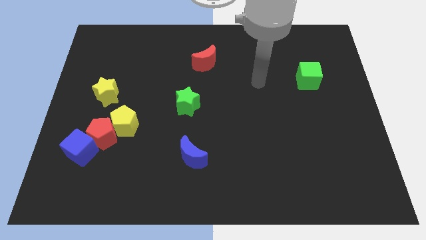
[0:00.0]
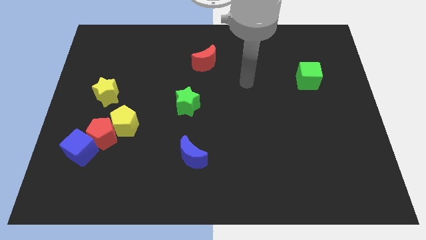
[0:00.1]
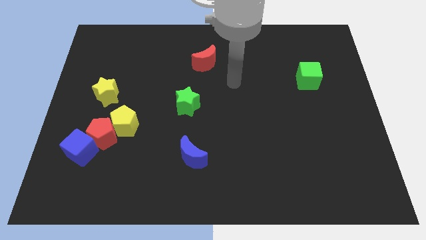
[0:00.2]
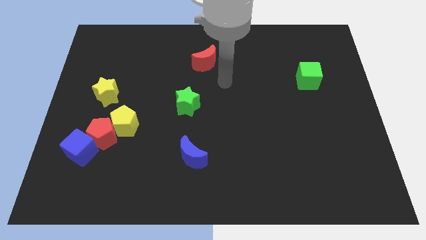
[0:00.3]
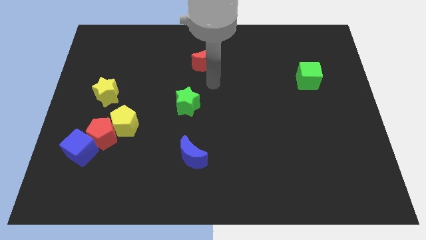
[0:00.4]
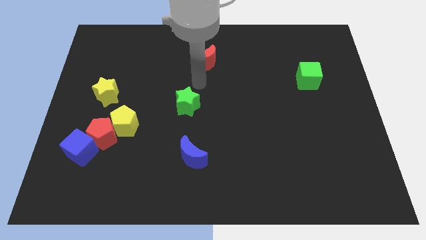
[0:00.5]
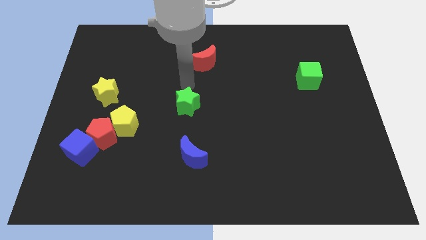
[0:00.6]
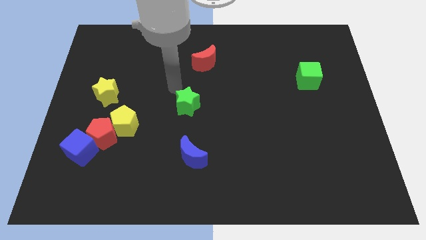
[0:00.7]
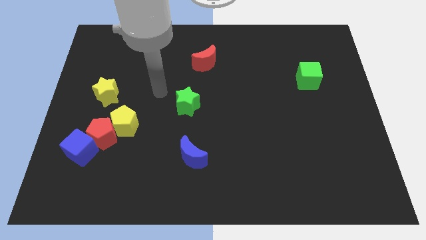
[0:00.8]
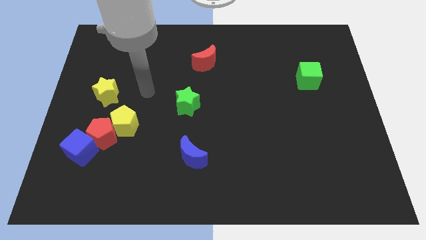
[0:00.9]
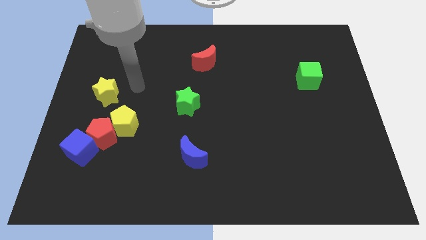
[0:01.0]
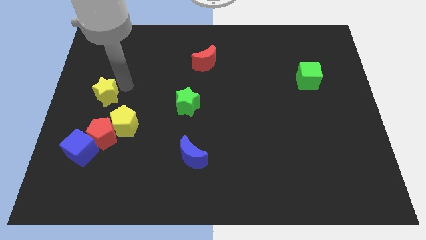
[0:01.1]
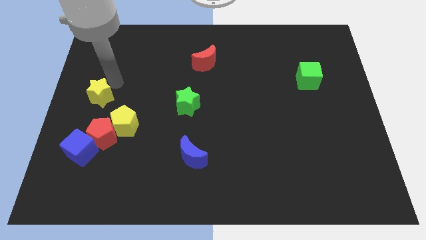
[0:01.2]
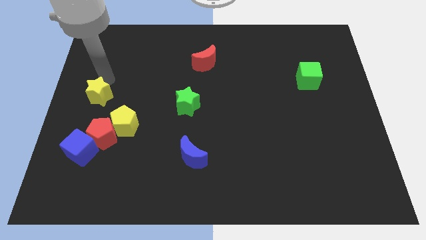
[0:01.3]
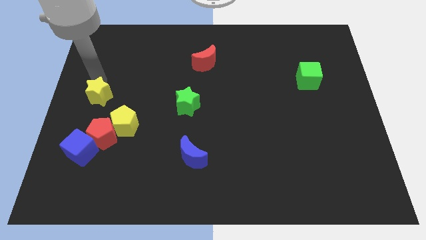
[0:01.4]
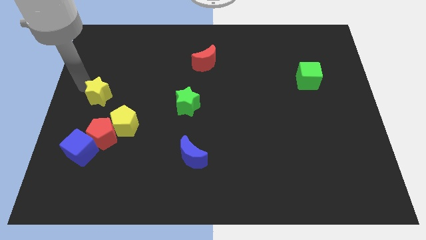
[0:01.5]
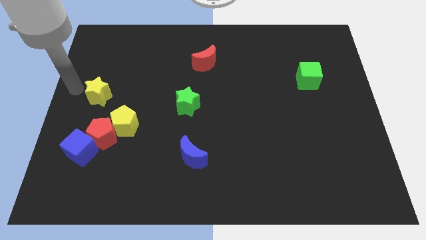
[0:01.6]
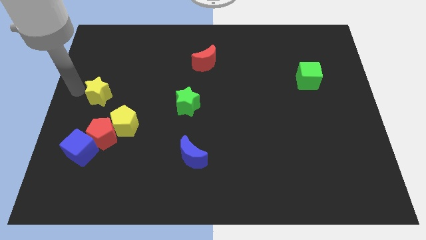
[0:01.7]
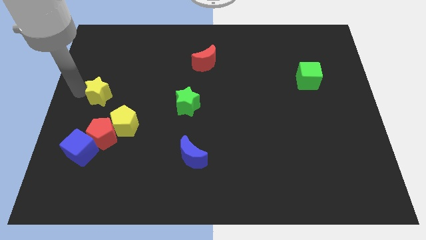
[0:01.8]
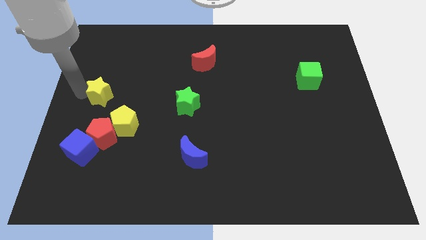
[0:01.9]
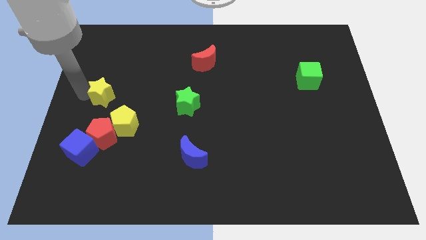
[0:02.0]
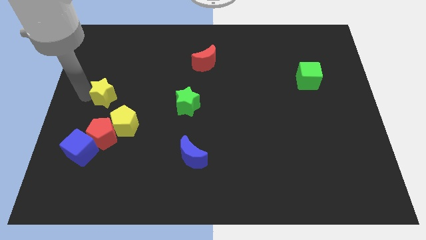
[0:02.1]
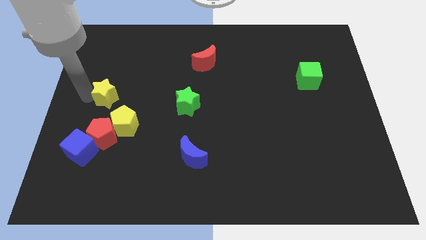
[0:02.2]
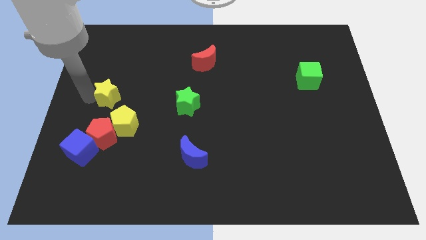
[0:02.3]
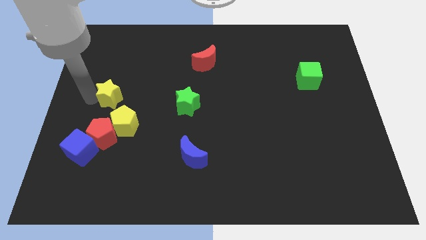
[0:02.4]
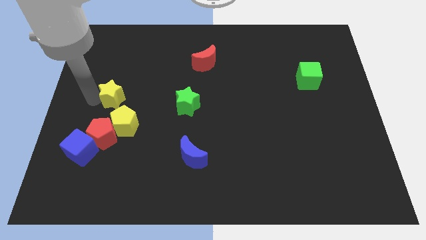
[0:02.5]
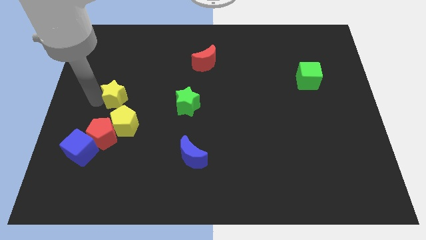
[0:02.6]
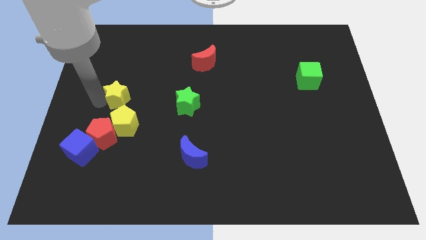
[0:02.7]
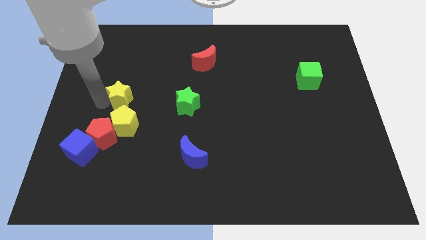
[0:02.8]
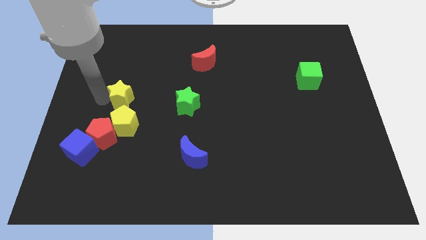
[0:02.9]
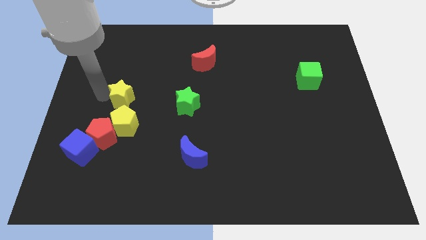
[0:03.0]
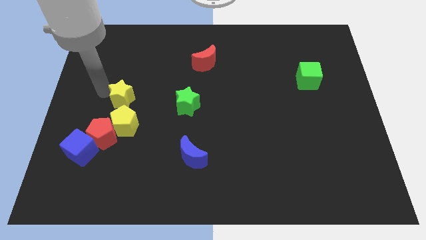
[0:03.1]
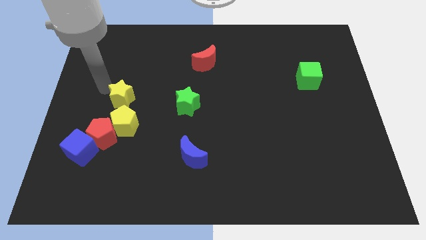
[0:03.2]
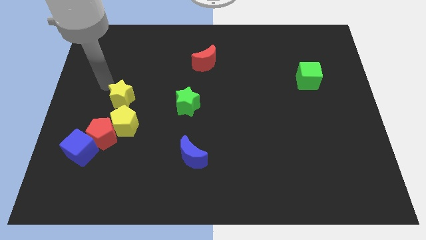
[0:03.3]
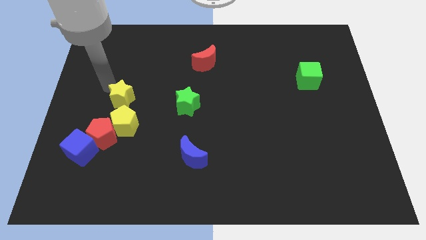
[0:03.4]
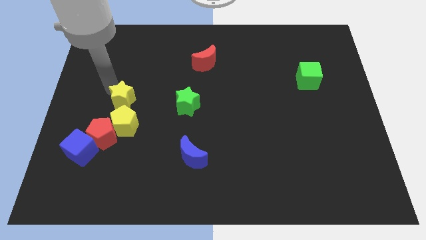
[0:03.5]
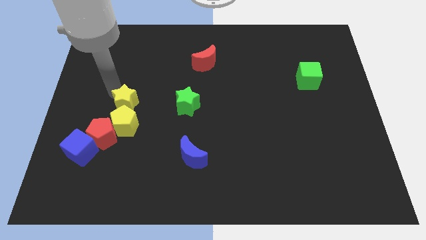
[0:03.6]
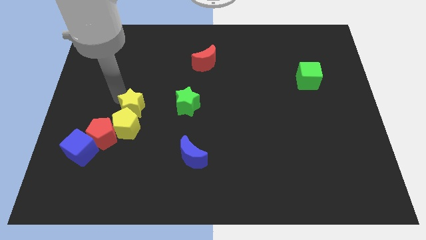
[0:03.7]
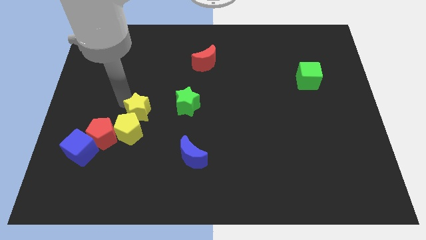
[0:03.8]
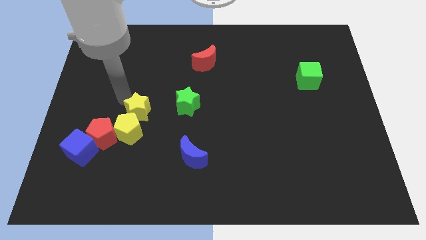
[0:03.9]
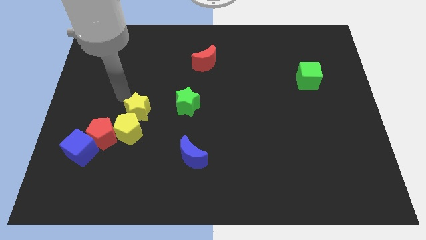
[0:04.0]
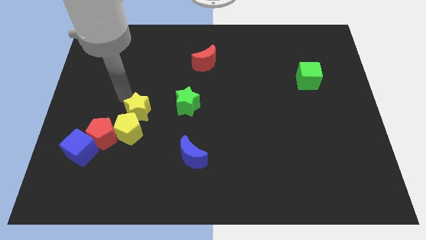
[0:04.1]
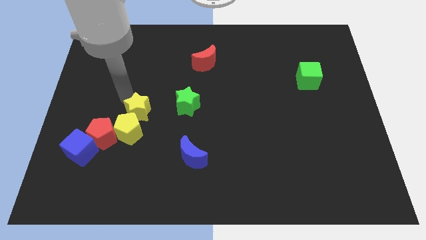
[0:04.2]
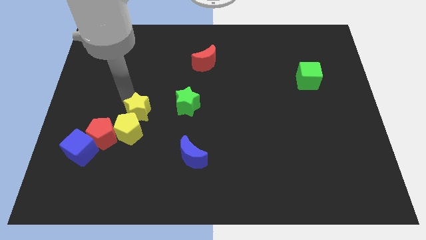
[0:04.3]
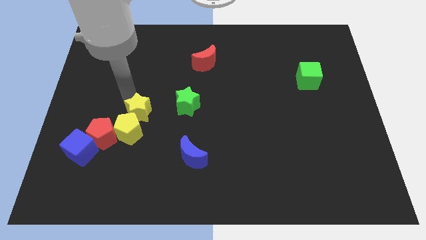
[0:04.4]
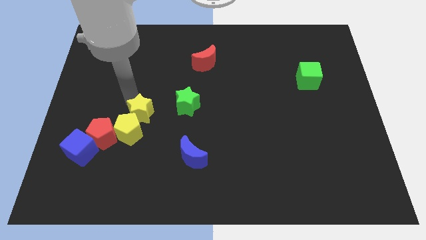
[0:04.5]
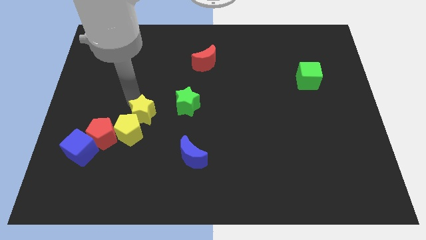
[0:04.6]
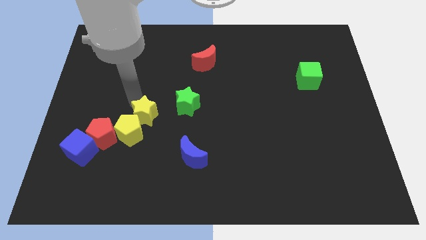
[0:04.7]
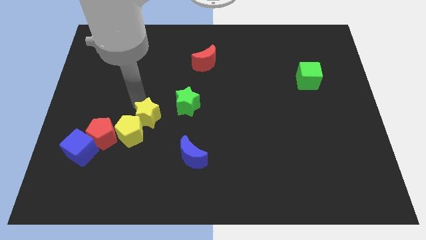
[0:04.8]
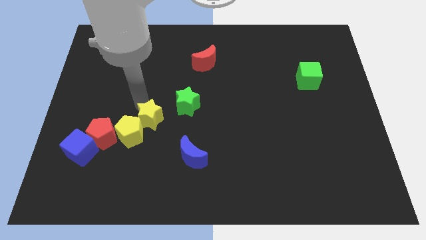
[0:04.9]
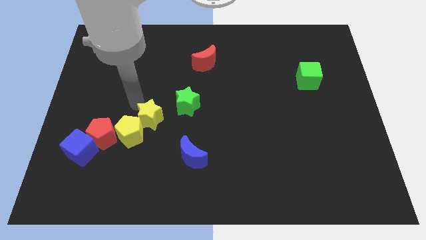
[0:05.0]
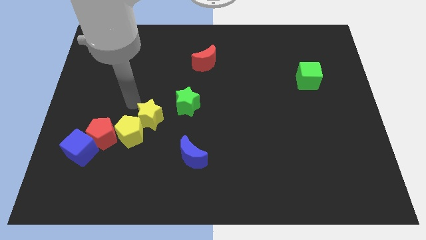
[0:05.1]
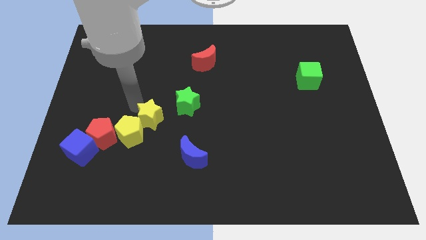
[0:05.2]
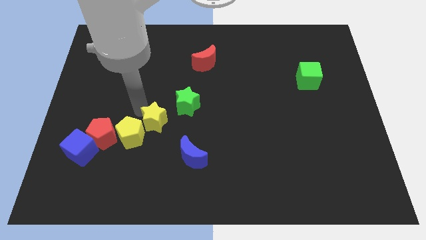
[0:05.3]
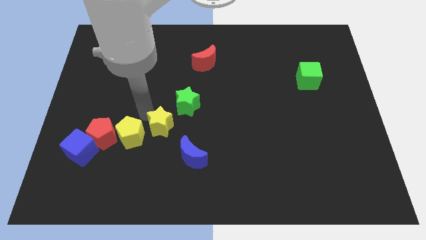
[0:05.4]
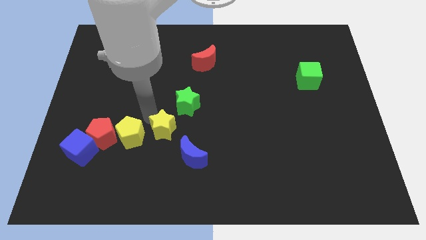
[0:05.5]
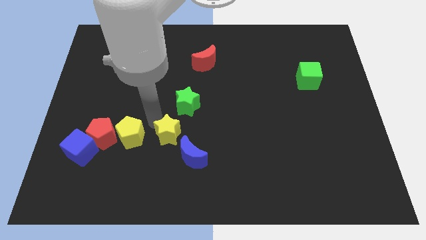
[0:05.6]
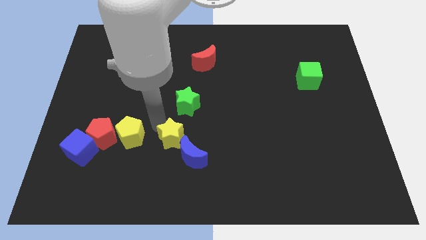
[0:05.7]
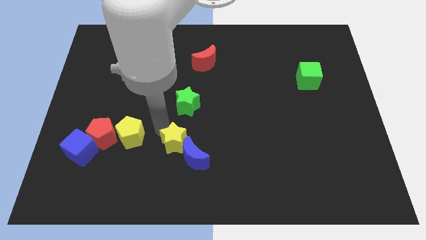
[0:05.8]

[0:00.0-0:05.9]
slide the yellow star next to the blue moon

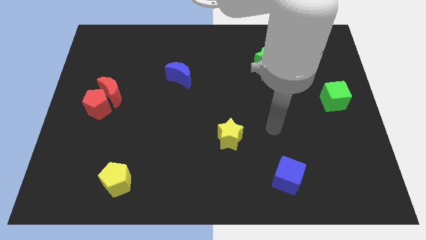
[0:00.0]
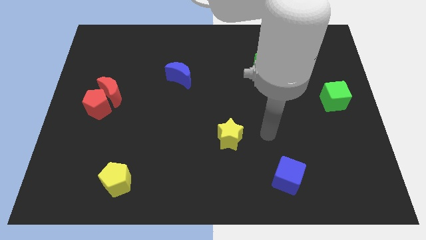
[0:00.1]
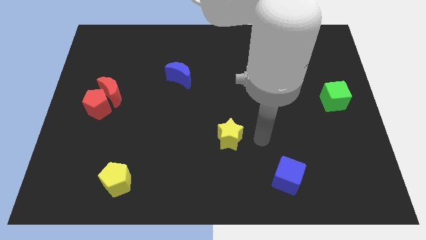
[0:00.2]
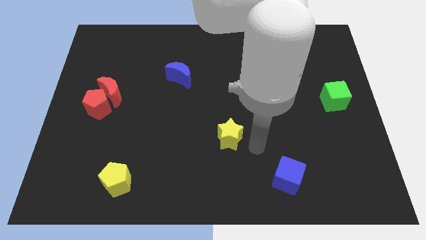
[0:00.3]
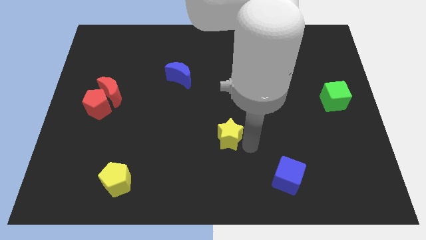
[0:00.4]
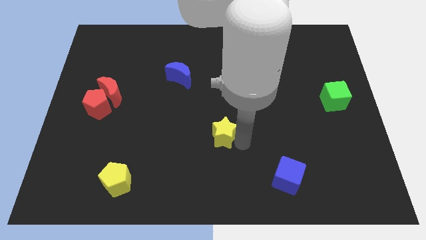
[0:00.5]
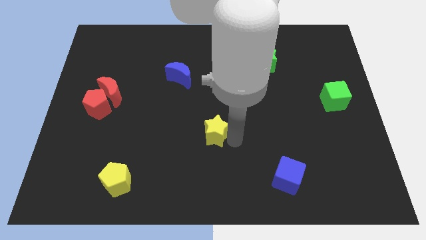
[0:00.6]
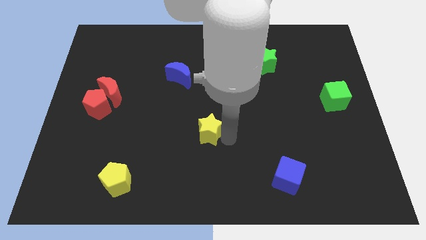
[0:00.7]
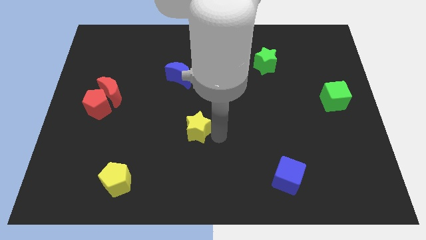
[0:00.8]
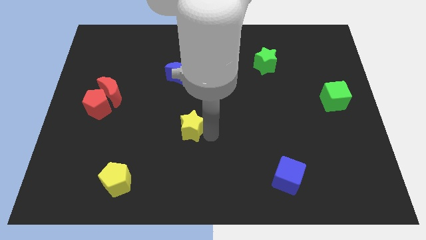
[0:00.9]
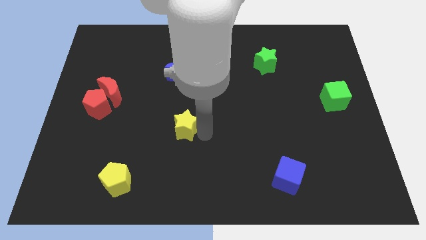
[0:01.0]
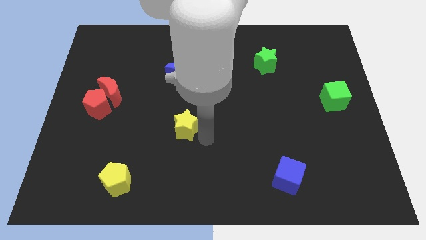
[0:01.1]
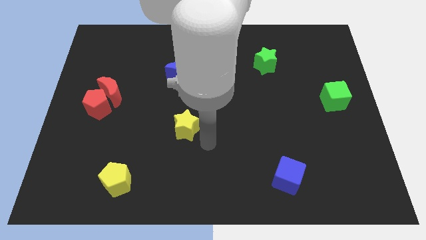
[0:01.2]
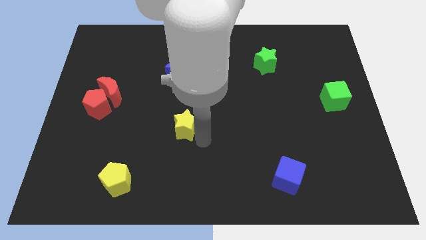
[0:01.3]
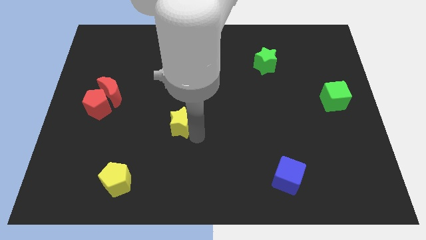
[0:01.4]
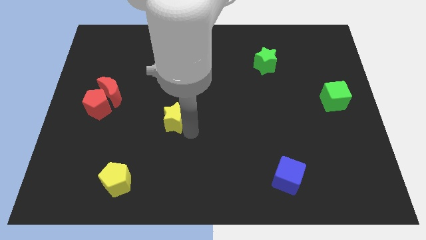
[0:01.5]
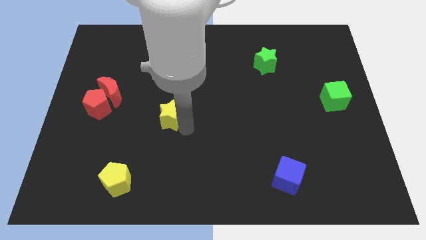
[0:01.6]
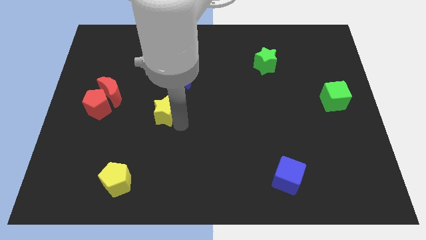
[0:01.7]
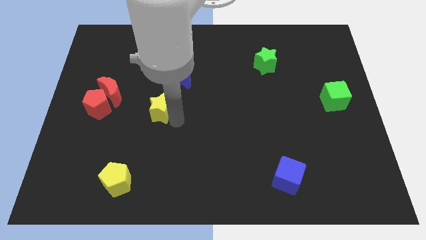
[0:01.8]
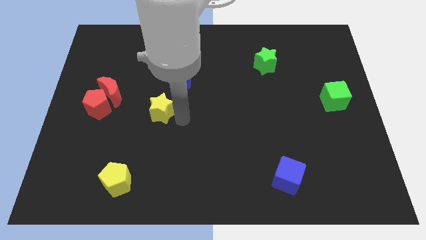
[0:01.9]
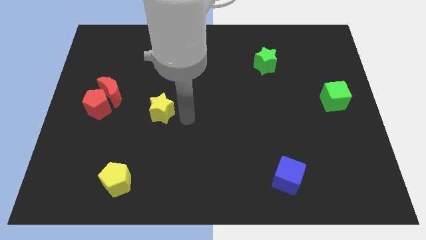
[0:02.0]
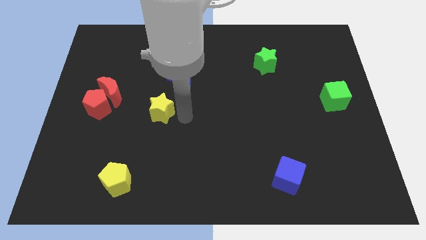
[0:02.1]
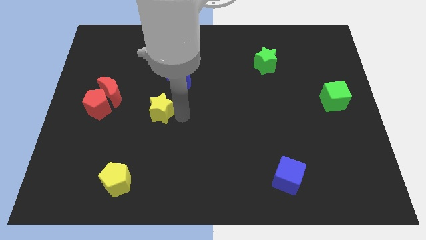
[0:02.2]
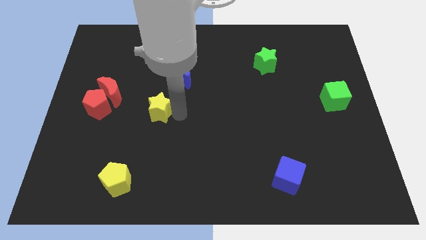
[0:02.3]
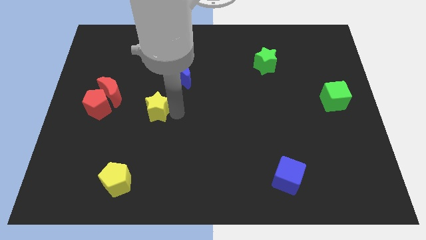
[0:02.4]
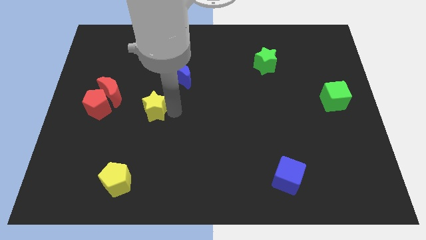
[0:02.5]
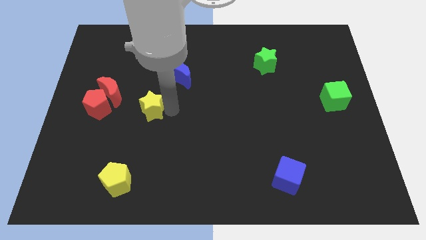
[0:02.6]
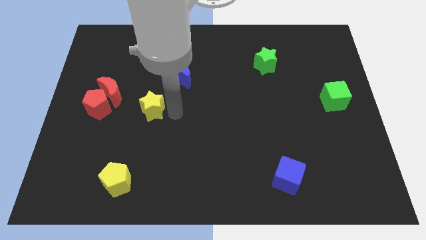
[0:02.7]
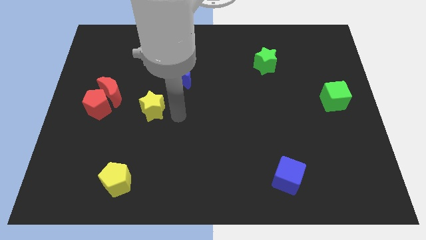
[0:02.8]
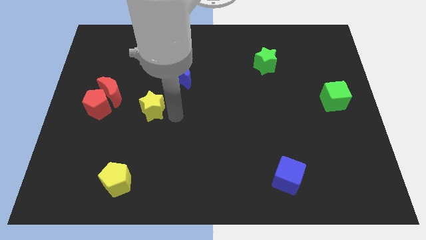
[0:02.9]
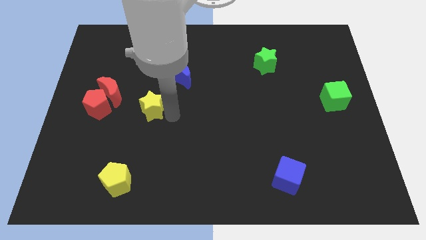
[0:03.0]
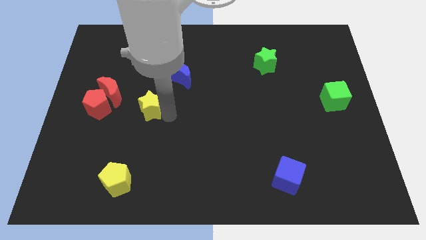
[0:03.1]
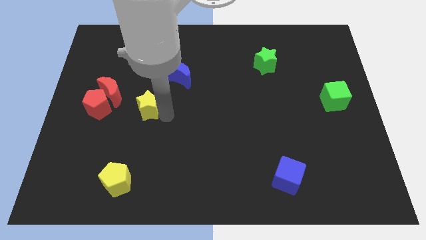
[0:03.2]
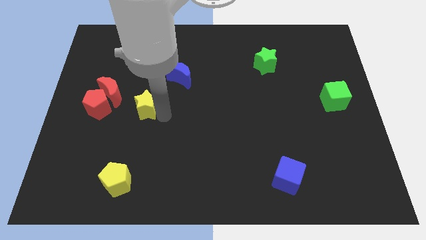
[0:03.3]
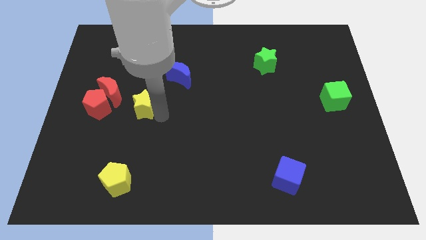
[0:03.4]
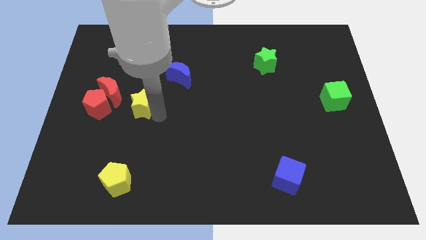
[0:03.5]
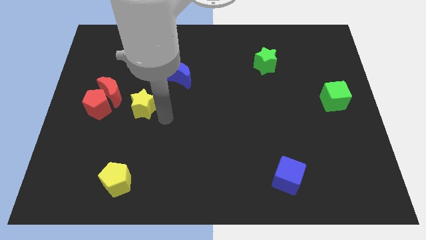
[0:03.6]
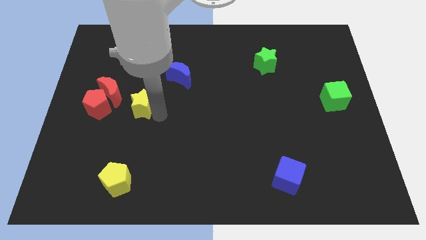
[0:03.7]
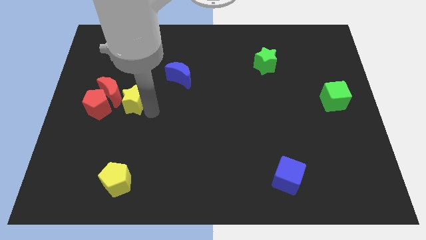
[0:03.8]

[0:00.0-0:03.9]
slide the yellow star to the red moon
